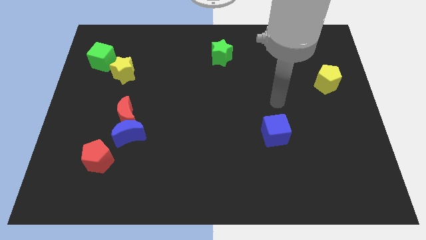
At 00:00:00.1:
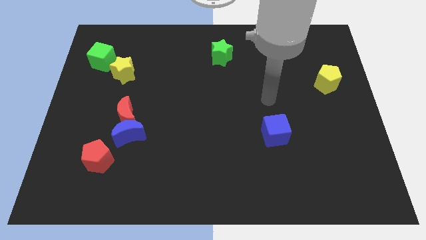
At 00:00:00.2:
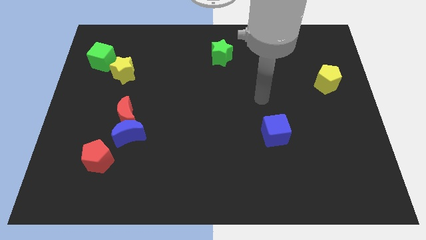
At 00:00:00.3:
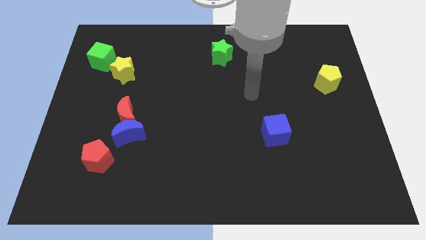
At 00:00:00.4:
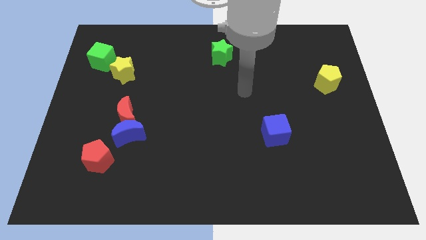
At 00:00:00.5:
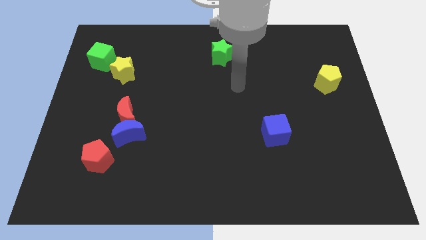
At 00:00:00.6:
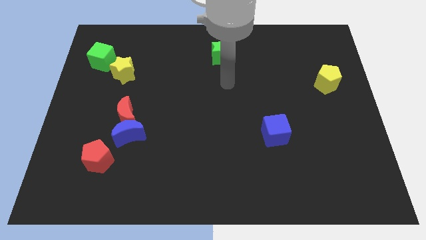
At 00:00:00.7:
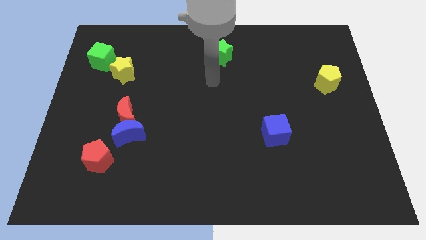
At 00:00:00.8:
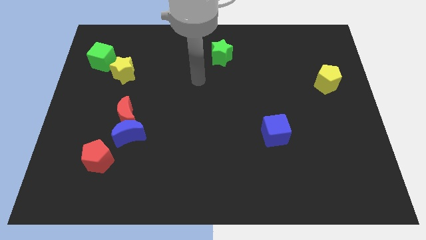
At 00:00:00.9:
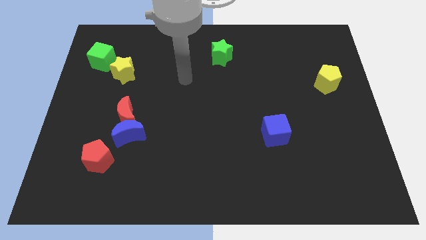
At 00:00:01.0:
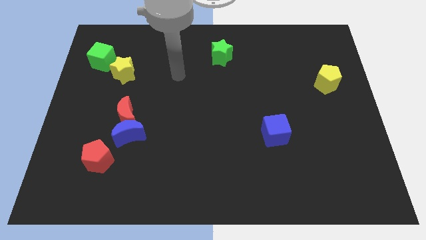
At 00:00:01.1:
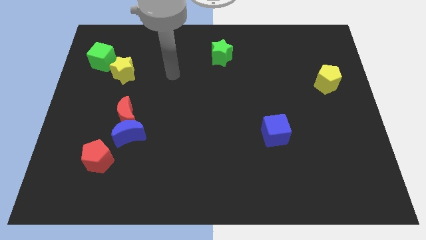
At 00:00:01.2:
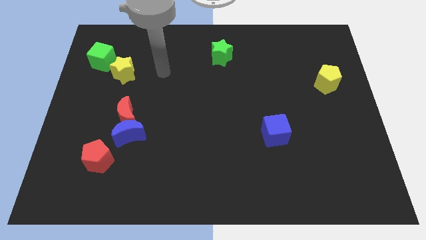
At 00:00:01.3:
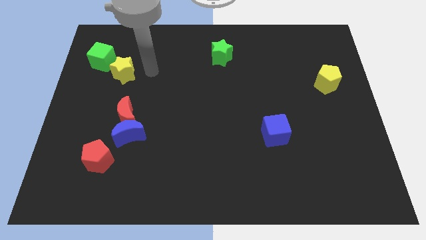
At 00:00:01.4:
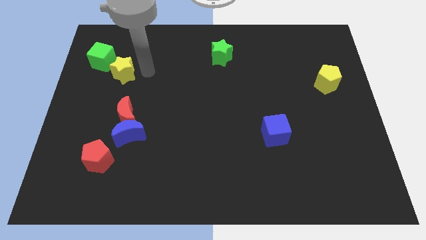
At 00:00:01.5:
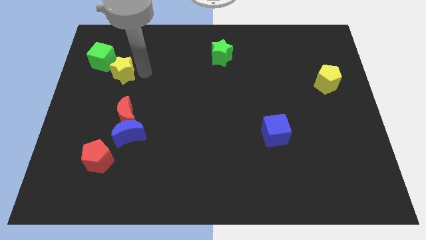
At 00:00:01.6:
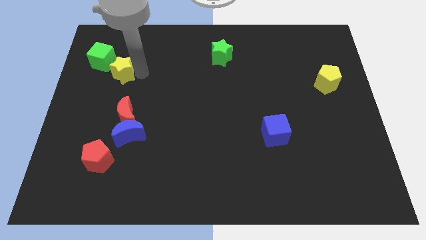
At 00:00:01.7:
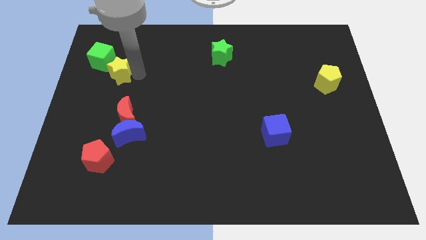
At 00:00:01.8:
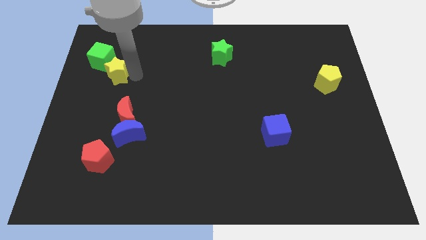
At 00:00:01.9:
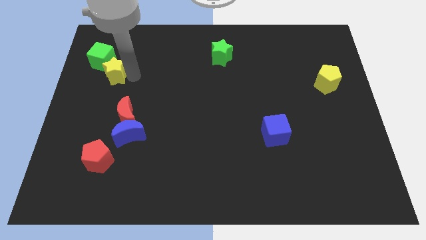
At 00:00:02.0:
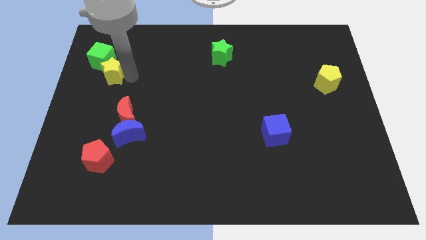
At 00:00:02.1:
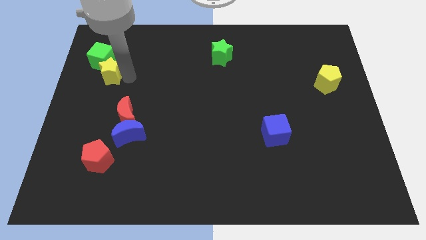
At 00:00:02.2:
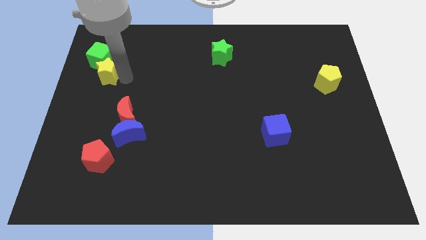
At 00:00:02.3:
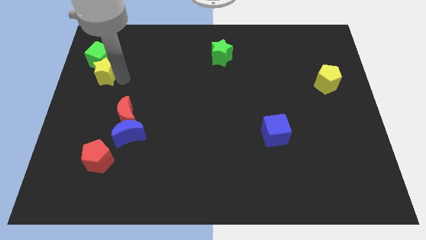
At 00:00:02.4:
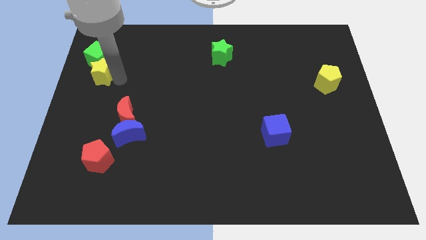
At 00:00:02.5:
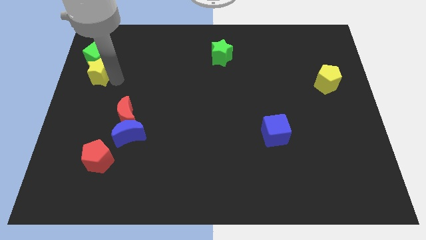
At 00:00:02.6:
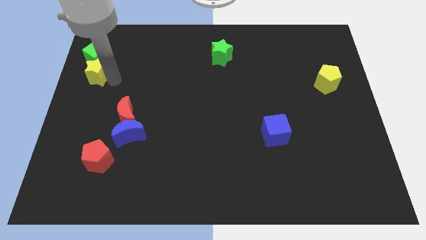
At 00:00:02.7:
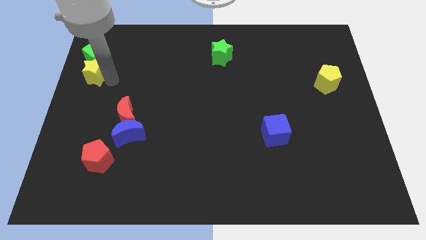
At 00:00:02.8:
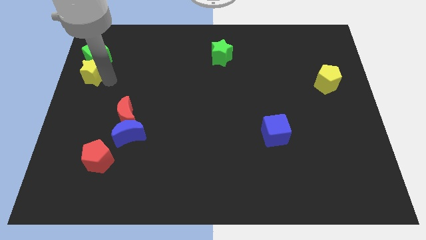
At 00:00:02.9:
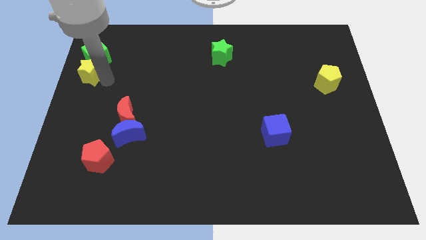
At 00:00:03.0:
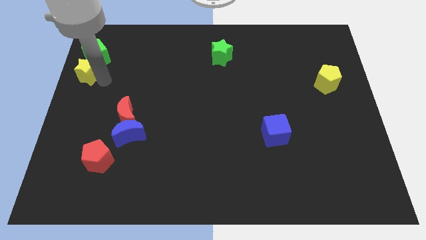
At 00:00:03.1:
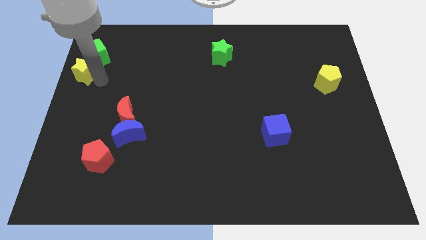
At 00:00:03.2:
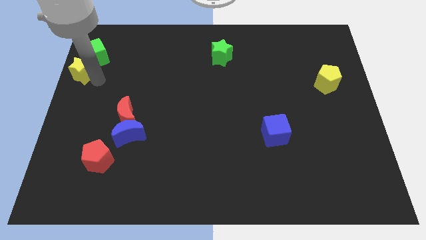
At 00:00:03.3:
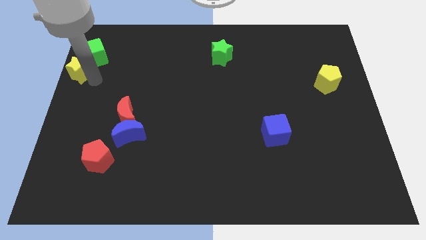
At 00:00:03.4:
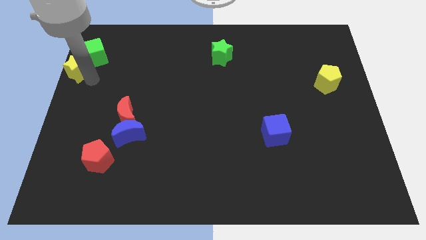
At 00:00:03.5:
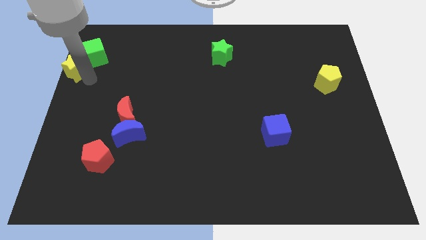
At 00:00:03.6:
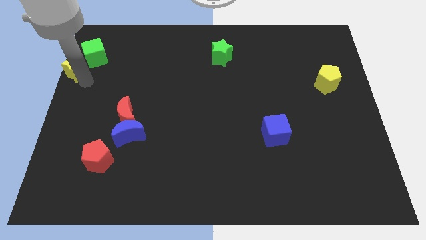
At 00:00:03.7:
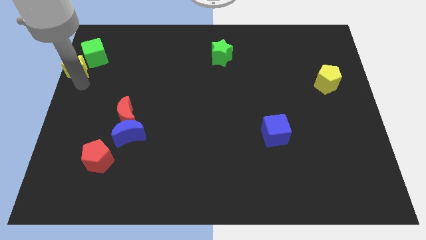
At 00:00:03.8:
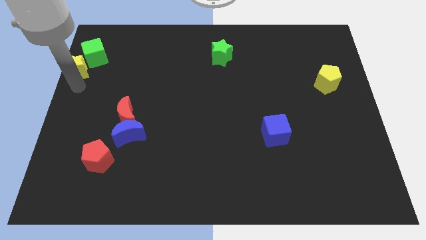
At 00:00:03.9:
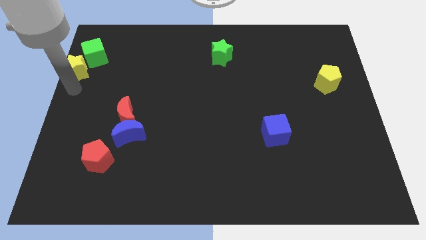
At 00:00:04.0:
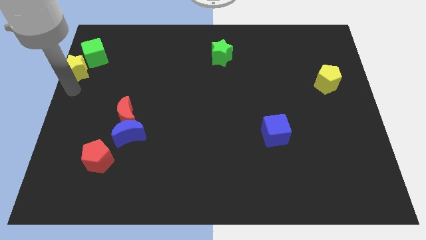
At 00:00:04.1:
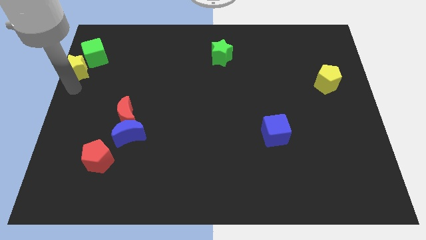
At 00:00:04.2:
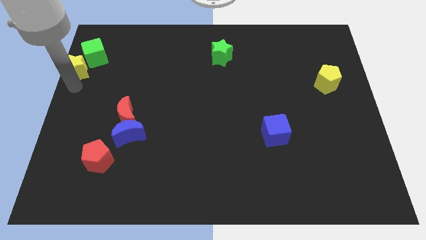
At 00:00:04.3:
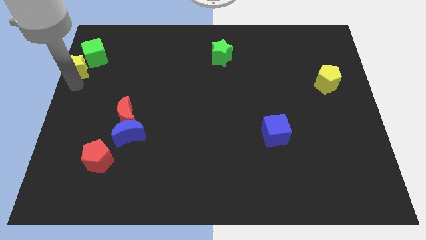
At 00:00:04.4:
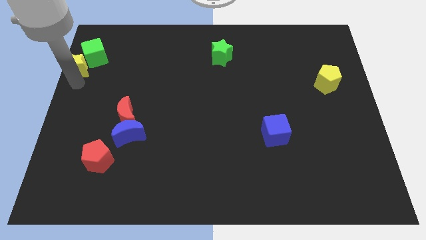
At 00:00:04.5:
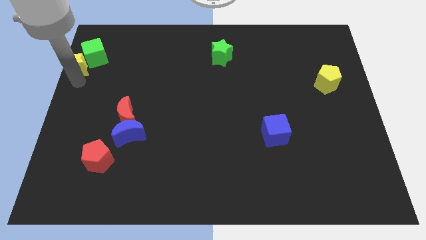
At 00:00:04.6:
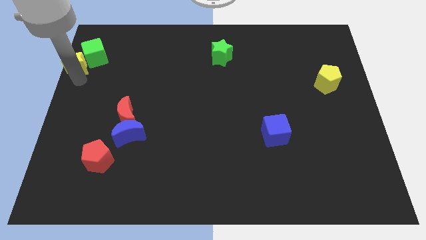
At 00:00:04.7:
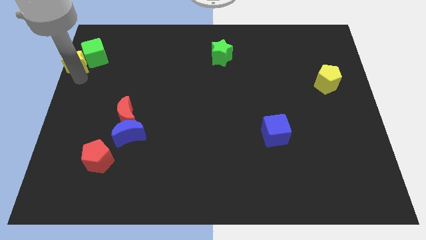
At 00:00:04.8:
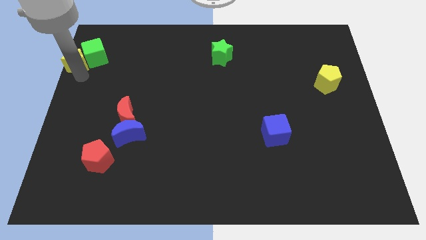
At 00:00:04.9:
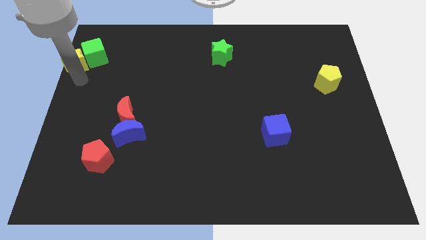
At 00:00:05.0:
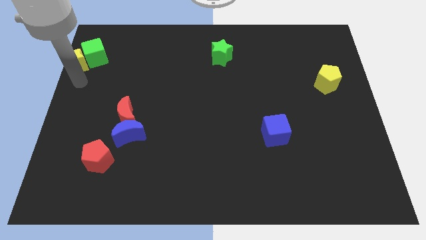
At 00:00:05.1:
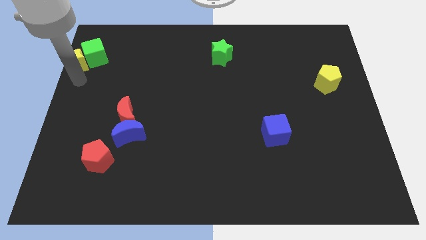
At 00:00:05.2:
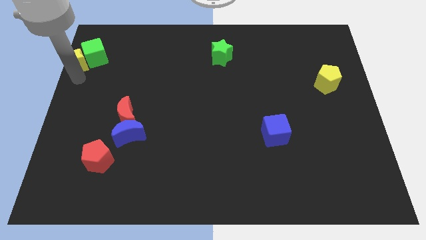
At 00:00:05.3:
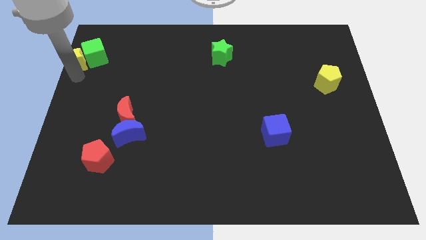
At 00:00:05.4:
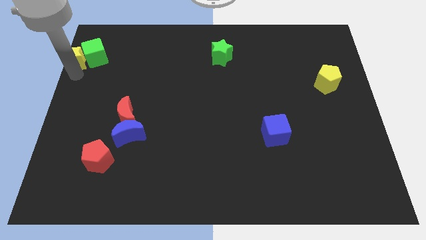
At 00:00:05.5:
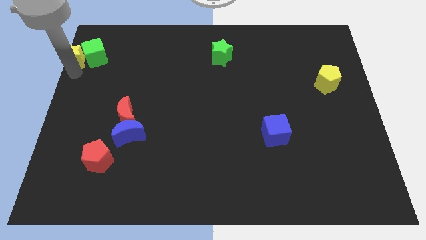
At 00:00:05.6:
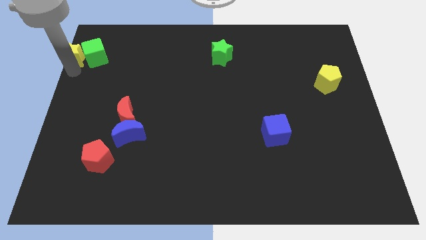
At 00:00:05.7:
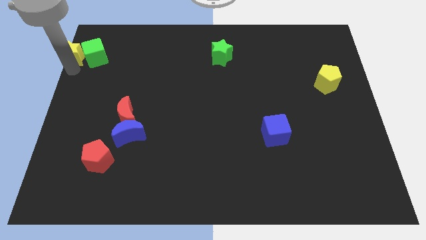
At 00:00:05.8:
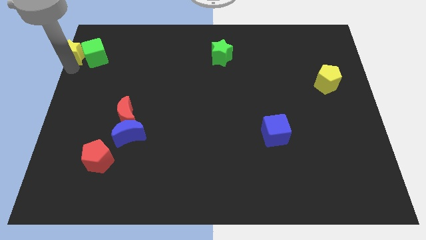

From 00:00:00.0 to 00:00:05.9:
slide the yellow star to the top left of the board
